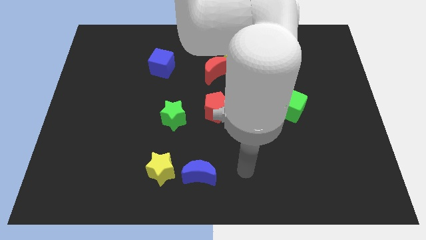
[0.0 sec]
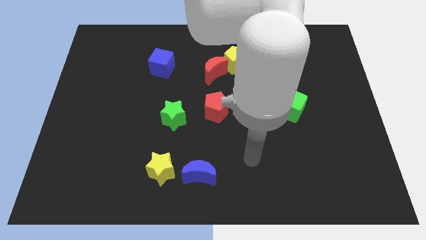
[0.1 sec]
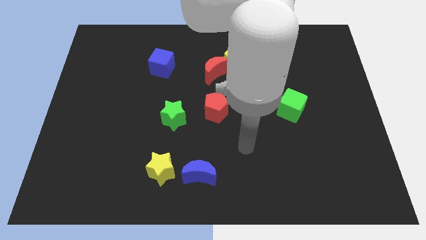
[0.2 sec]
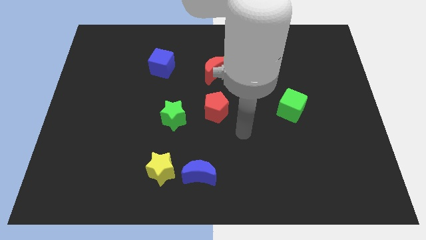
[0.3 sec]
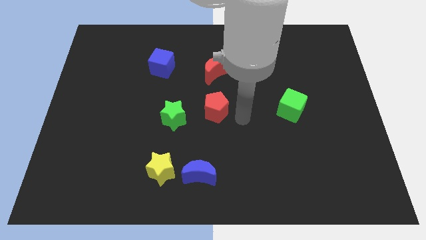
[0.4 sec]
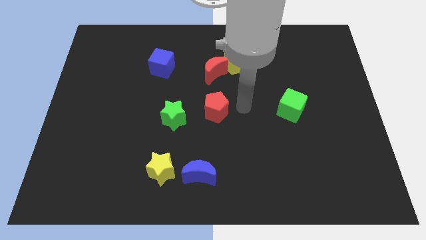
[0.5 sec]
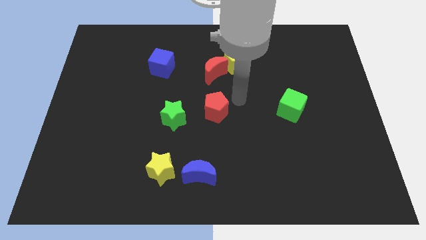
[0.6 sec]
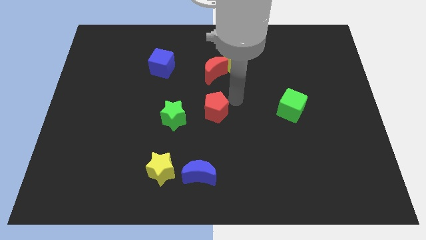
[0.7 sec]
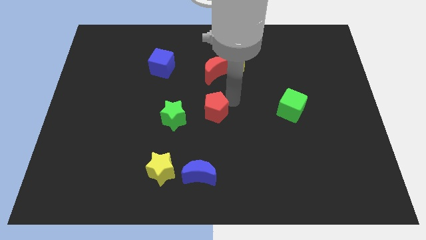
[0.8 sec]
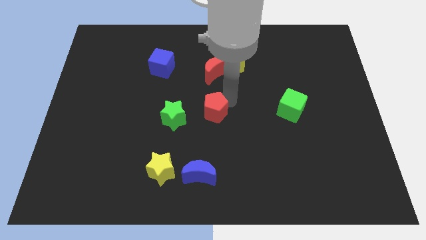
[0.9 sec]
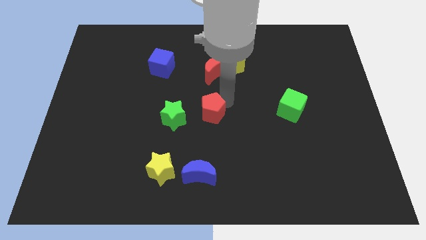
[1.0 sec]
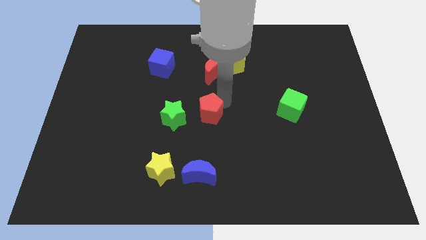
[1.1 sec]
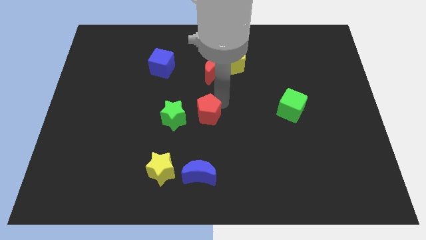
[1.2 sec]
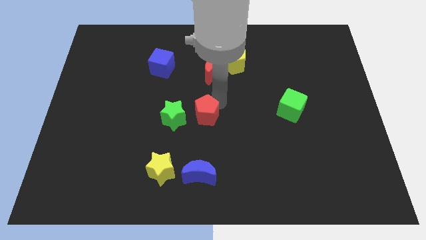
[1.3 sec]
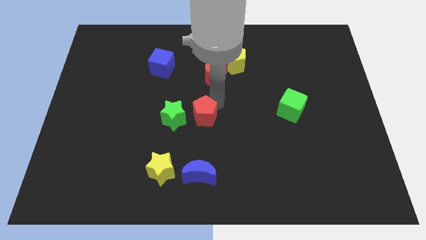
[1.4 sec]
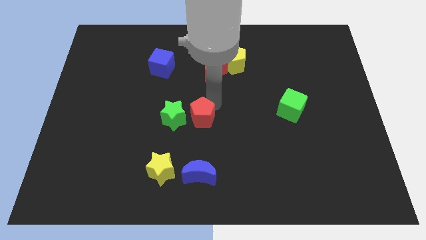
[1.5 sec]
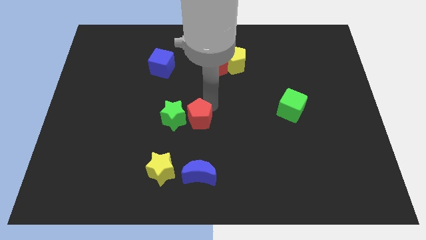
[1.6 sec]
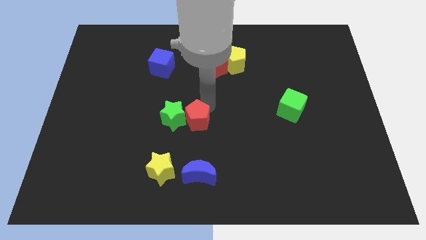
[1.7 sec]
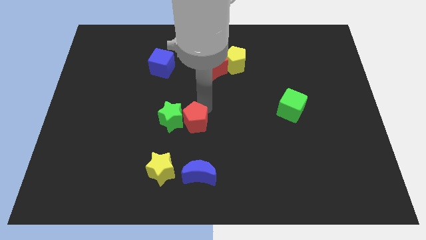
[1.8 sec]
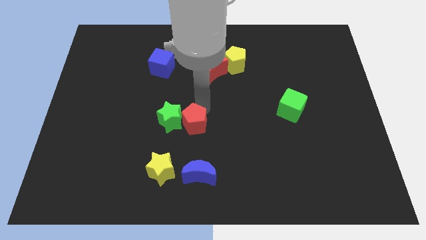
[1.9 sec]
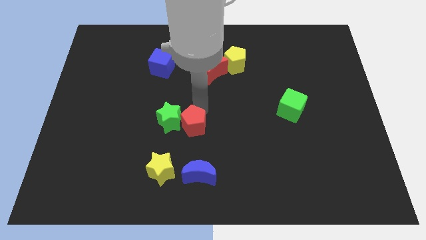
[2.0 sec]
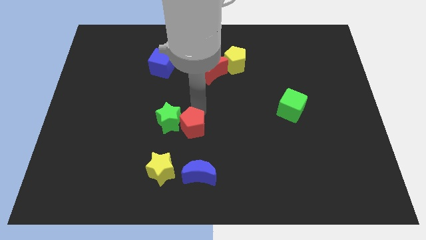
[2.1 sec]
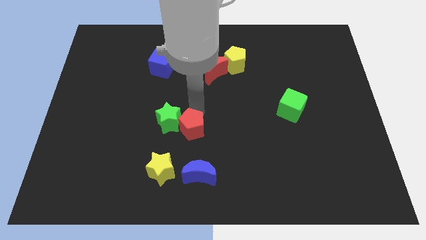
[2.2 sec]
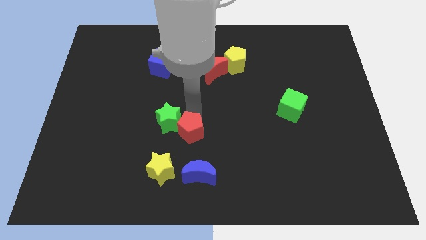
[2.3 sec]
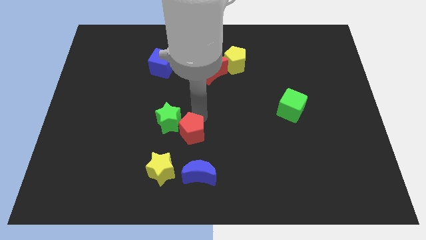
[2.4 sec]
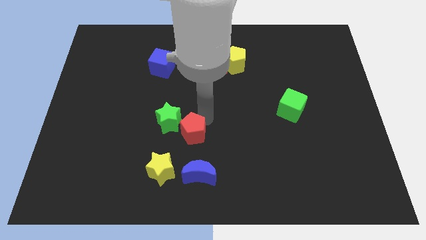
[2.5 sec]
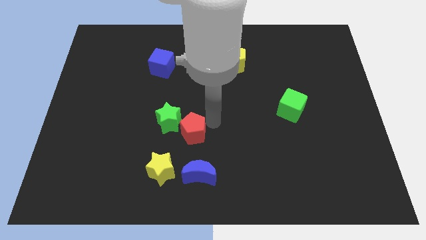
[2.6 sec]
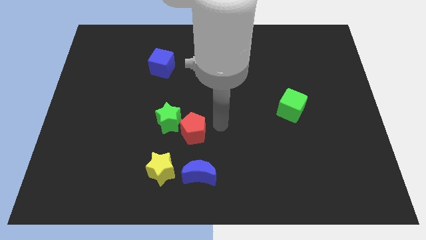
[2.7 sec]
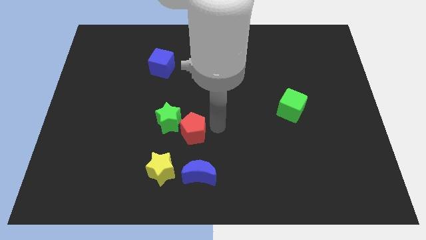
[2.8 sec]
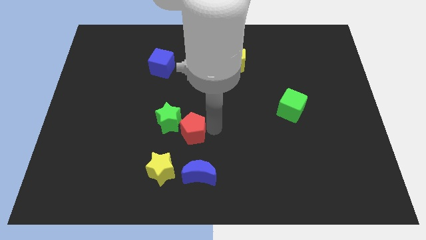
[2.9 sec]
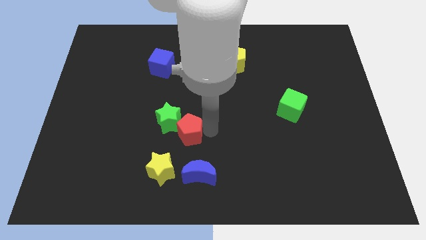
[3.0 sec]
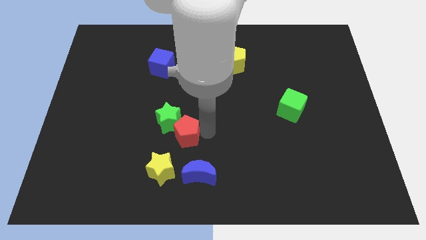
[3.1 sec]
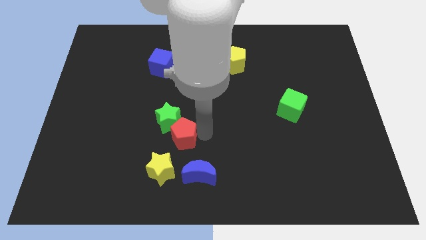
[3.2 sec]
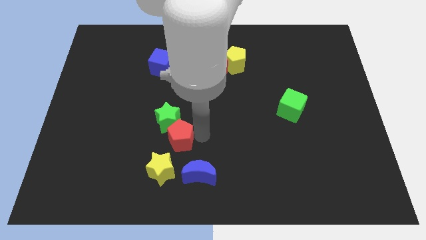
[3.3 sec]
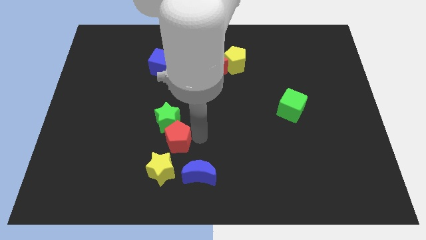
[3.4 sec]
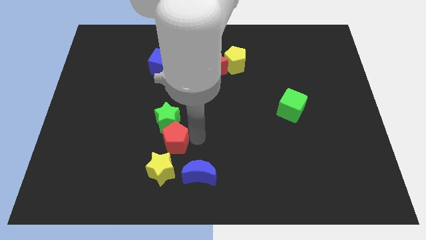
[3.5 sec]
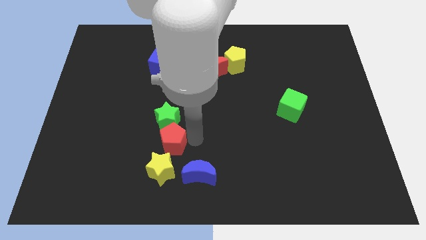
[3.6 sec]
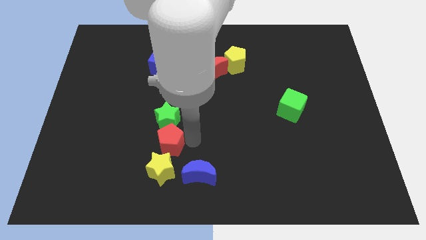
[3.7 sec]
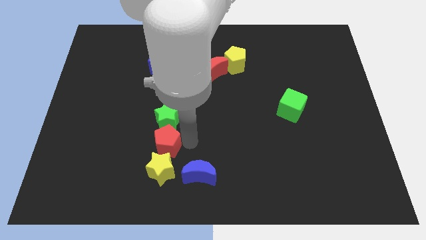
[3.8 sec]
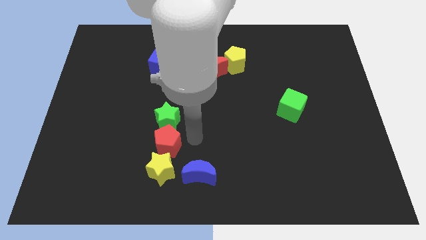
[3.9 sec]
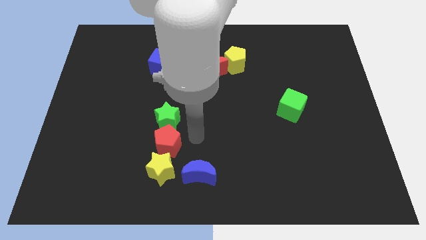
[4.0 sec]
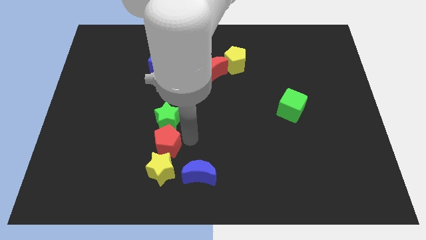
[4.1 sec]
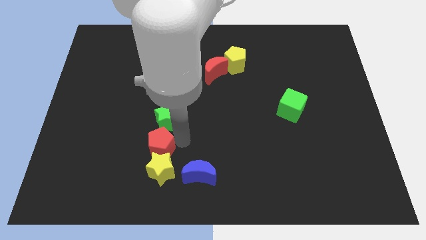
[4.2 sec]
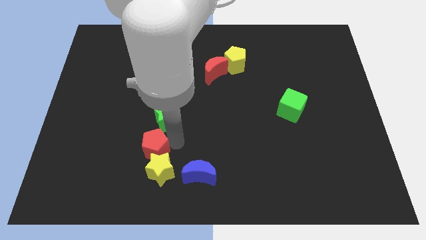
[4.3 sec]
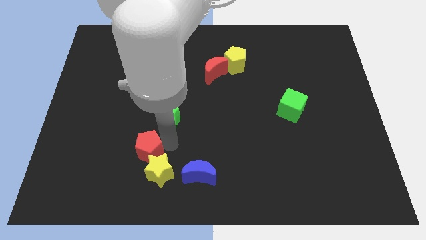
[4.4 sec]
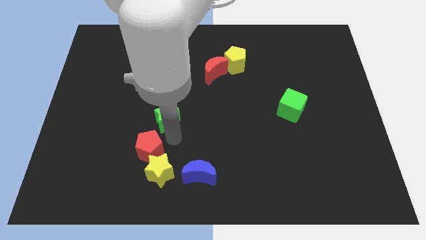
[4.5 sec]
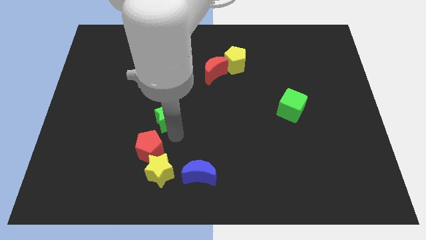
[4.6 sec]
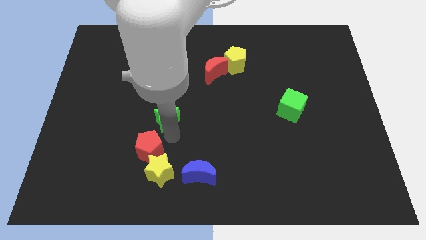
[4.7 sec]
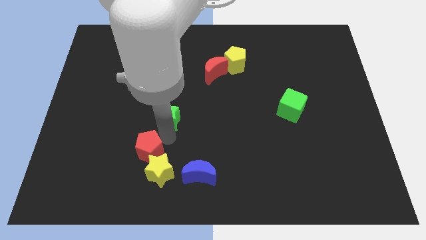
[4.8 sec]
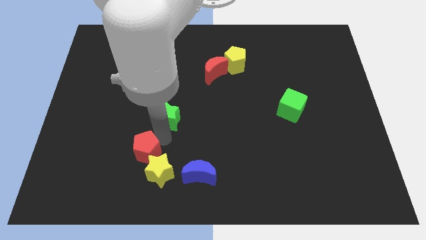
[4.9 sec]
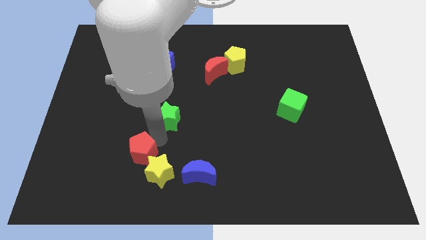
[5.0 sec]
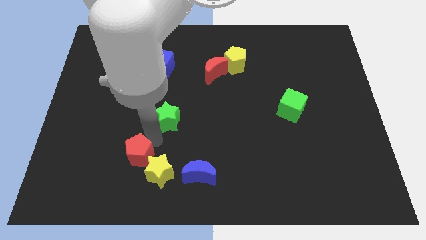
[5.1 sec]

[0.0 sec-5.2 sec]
move the red pentagon just left of the yellow star

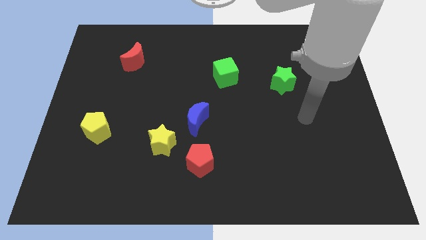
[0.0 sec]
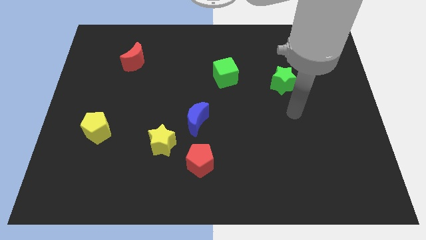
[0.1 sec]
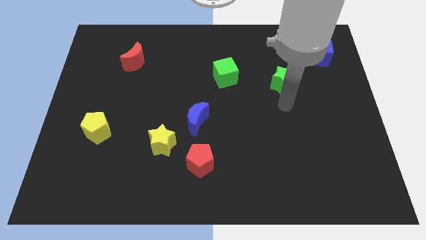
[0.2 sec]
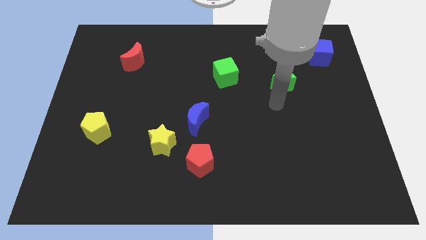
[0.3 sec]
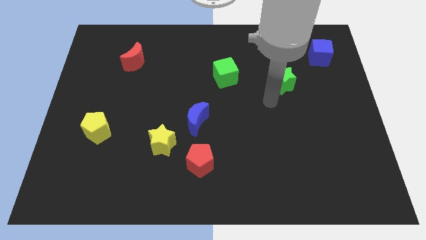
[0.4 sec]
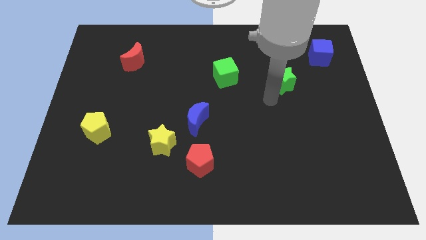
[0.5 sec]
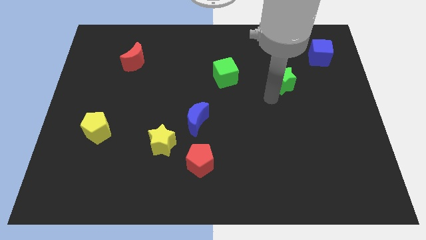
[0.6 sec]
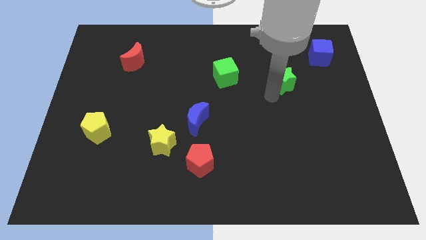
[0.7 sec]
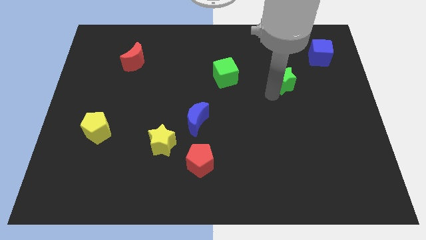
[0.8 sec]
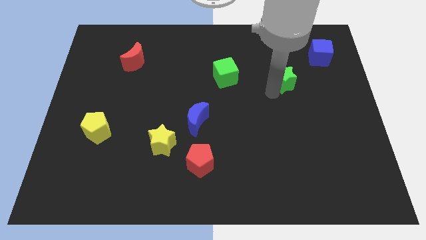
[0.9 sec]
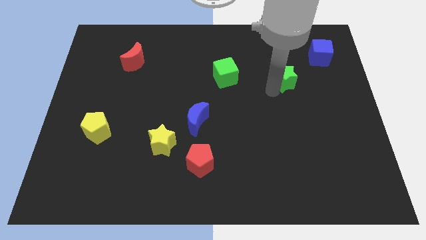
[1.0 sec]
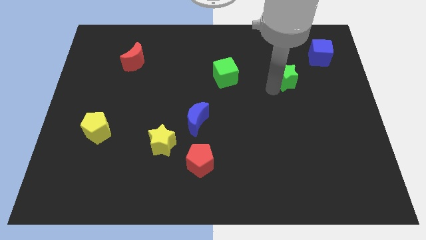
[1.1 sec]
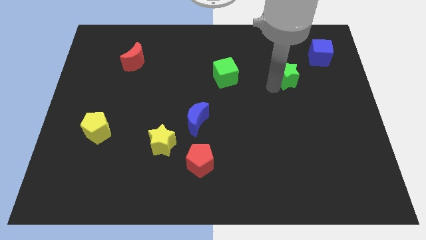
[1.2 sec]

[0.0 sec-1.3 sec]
move the green star diagonally down and to the left of the blue cube
